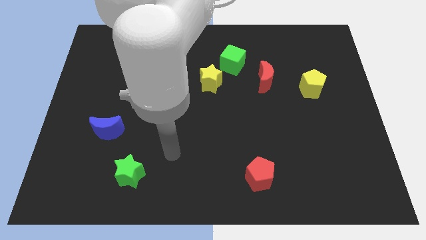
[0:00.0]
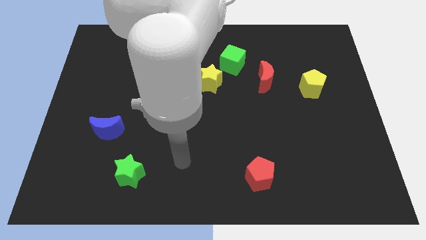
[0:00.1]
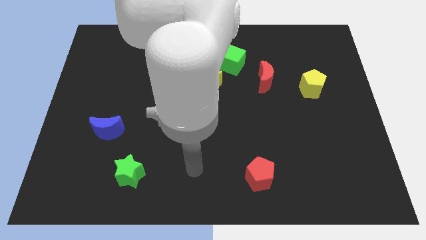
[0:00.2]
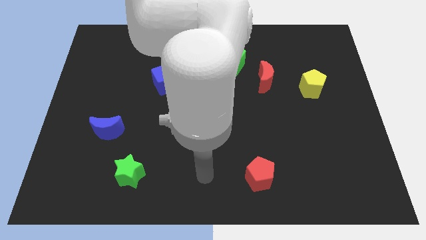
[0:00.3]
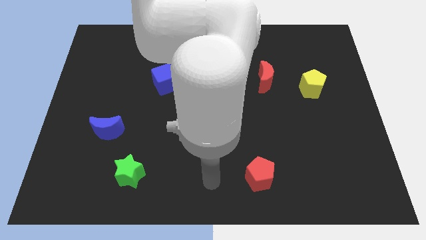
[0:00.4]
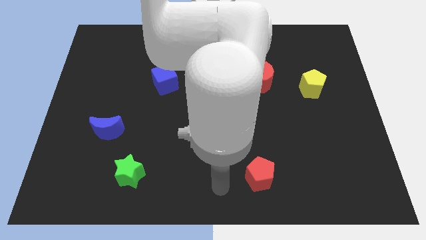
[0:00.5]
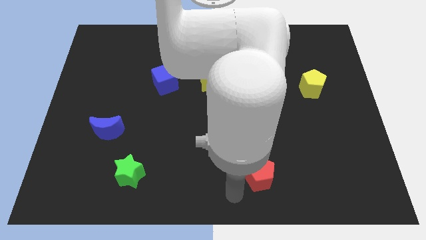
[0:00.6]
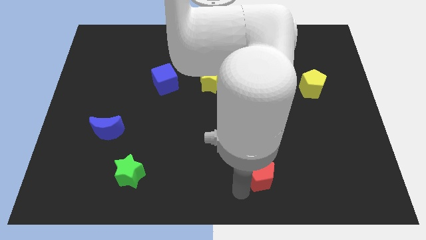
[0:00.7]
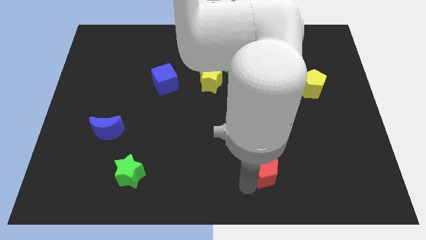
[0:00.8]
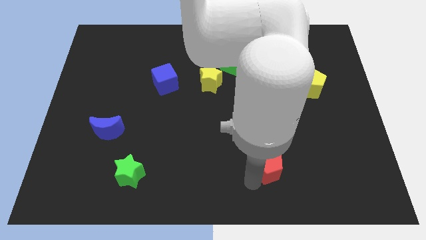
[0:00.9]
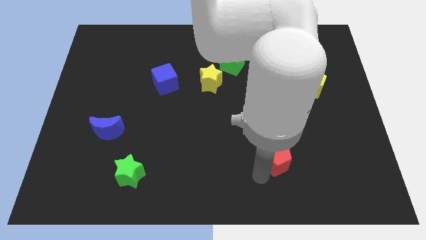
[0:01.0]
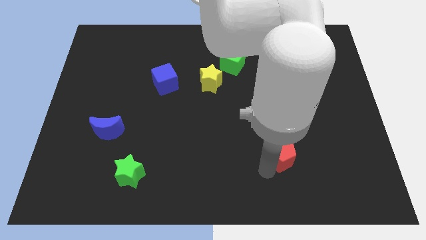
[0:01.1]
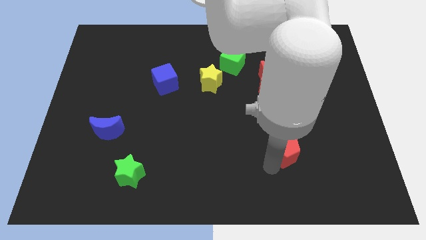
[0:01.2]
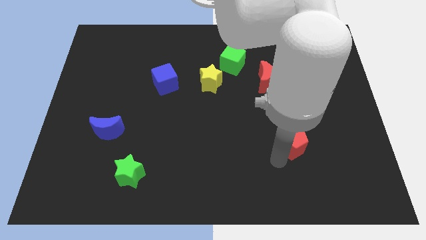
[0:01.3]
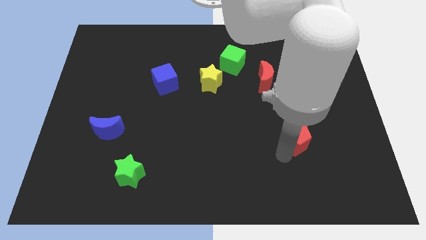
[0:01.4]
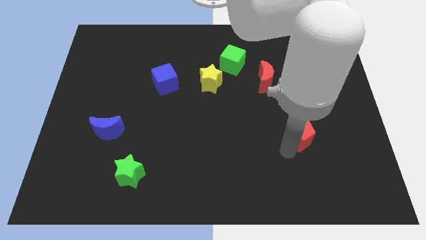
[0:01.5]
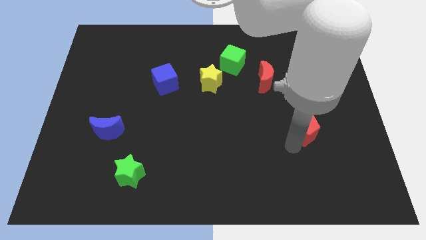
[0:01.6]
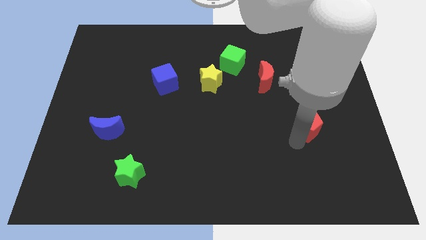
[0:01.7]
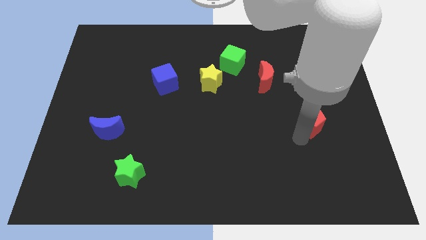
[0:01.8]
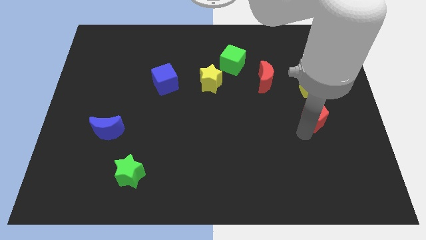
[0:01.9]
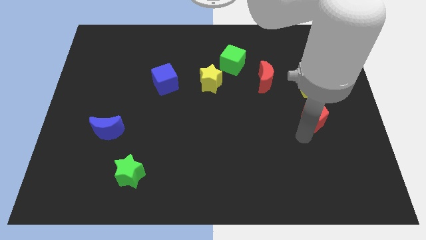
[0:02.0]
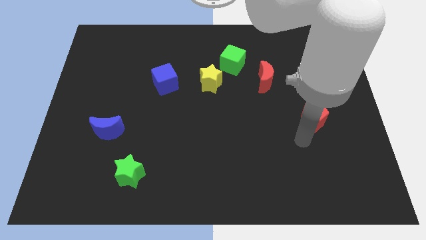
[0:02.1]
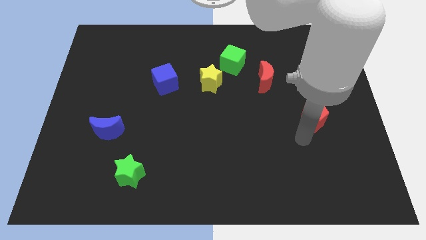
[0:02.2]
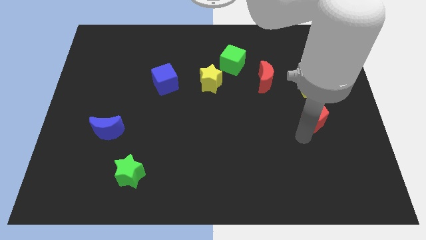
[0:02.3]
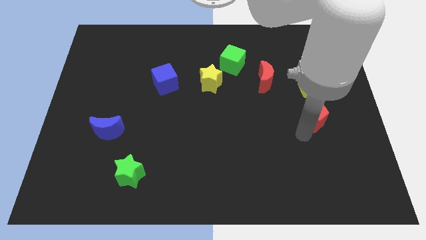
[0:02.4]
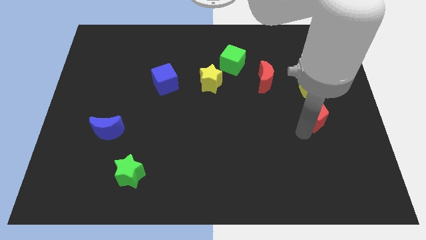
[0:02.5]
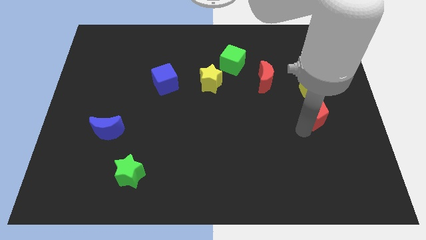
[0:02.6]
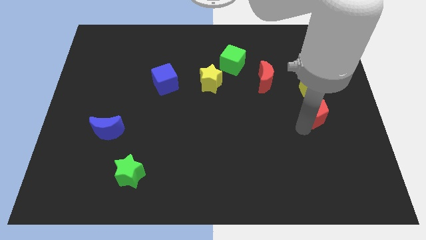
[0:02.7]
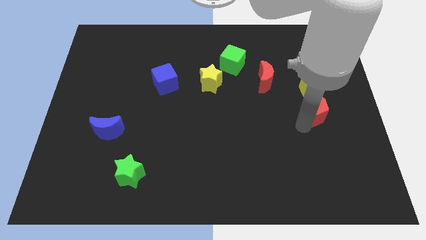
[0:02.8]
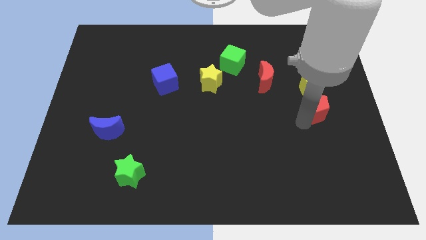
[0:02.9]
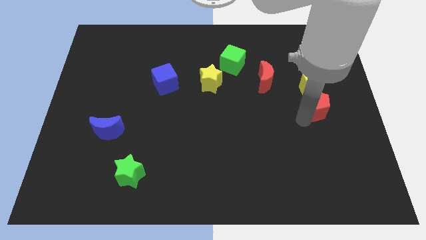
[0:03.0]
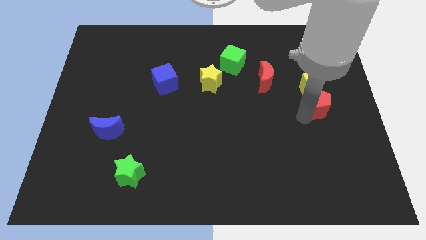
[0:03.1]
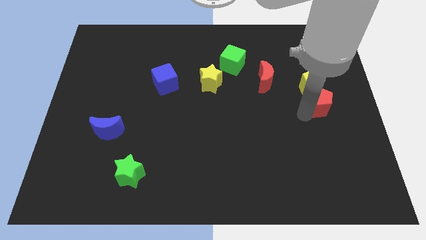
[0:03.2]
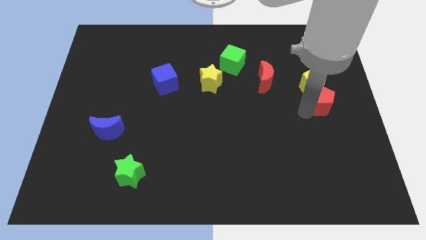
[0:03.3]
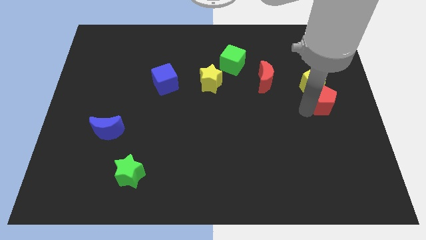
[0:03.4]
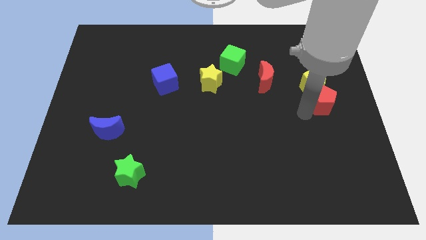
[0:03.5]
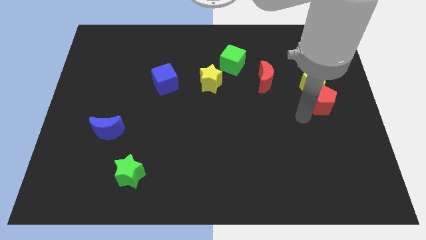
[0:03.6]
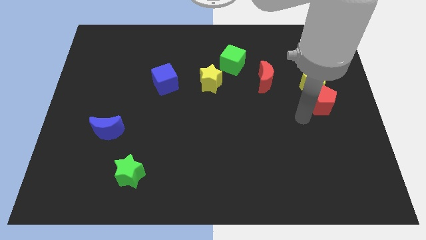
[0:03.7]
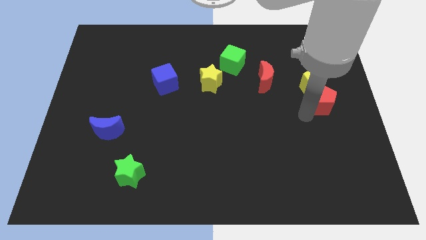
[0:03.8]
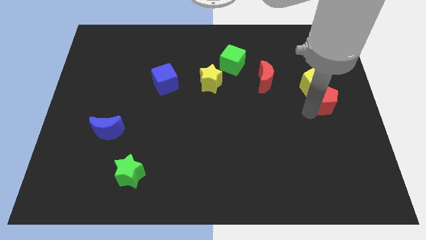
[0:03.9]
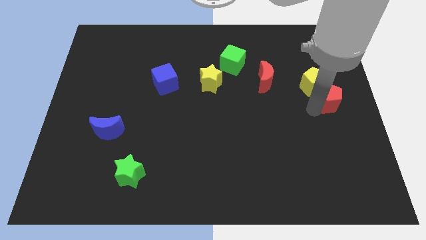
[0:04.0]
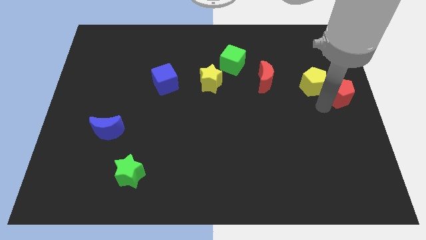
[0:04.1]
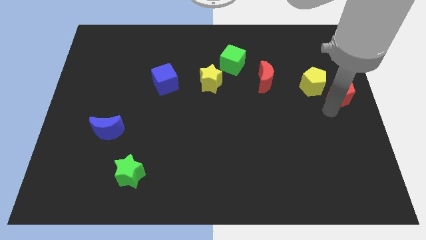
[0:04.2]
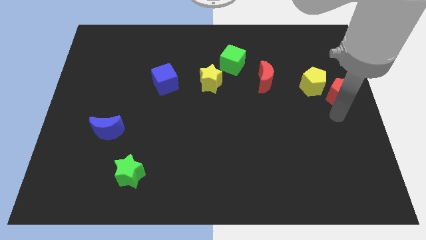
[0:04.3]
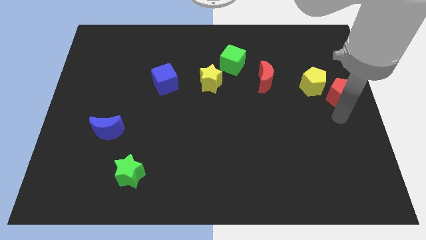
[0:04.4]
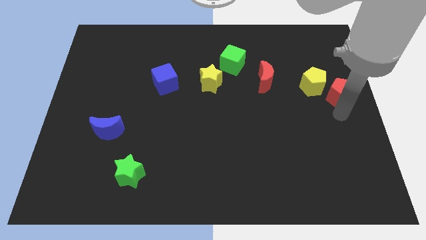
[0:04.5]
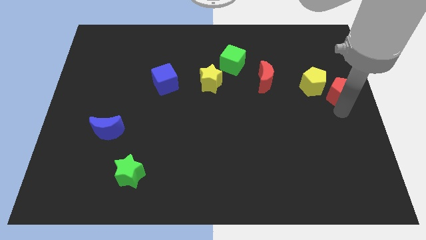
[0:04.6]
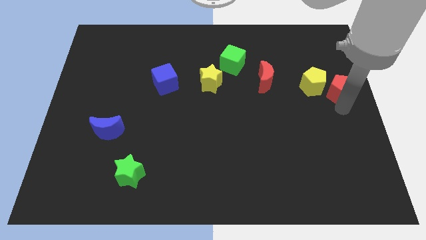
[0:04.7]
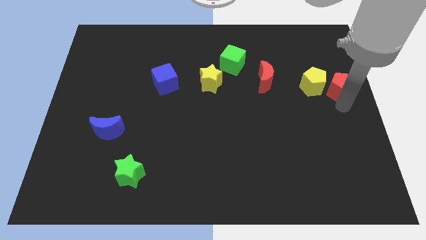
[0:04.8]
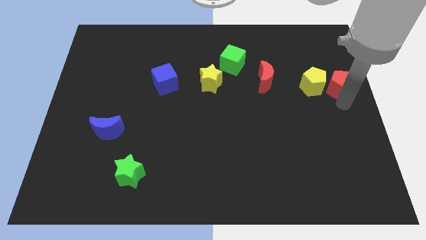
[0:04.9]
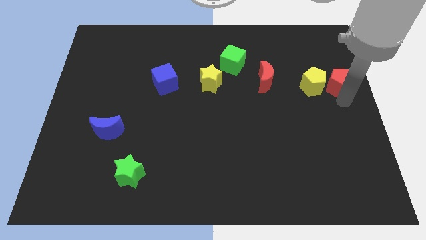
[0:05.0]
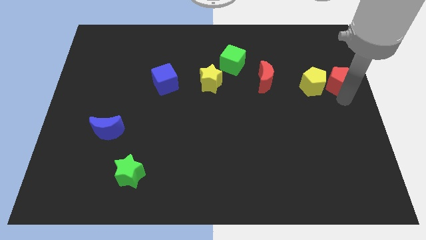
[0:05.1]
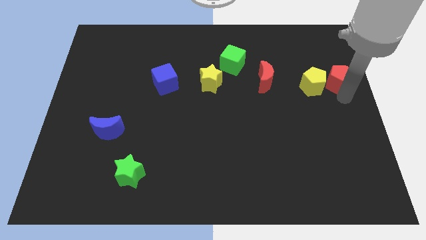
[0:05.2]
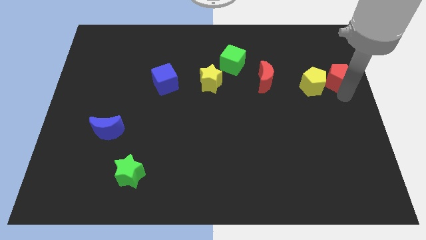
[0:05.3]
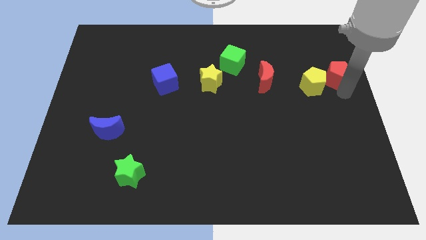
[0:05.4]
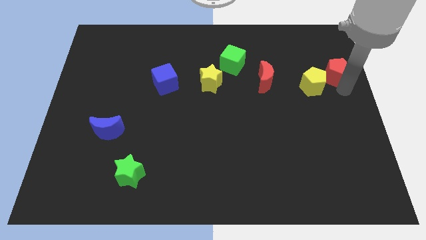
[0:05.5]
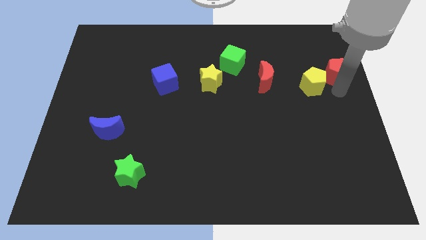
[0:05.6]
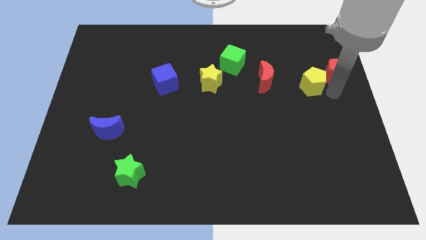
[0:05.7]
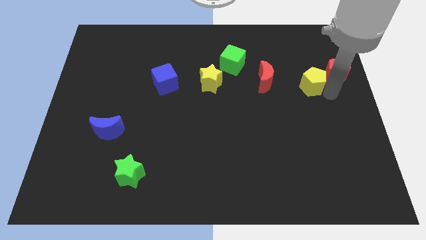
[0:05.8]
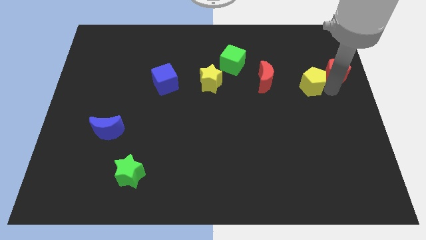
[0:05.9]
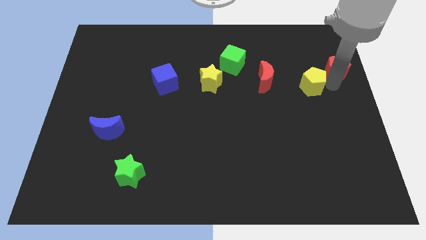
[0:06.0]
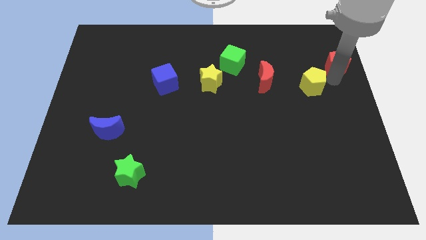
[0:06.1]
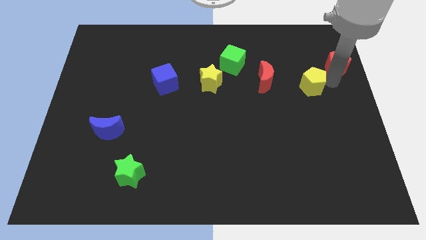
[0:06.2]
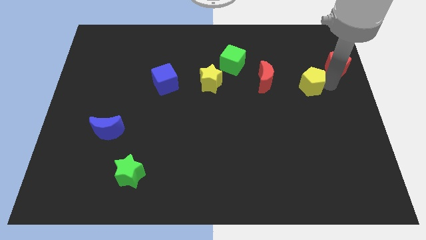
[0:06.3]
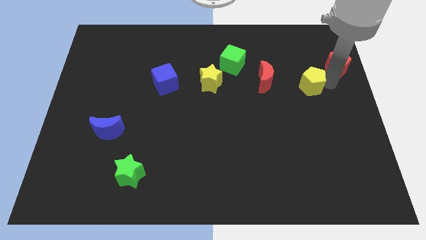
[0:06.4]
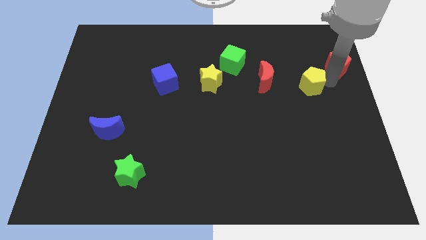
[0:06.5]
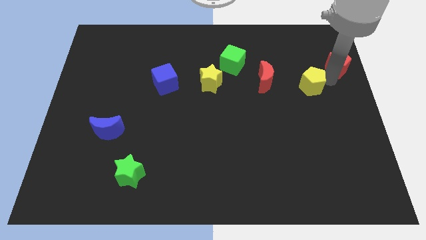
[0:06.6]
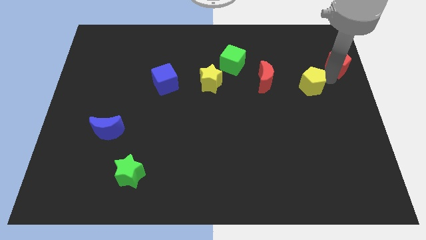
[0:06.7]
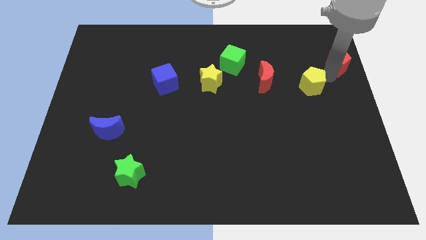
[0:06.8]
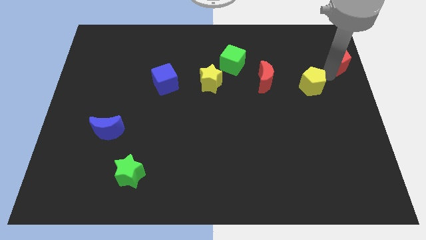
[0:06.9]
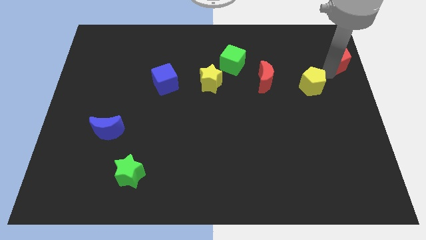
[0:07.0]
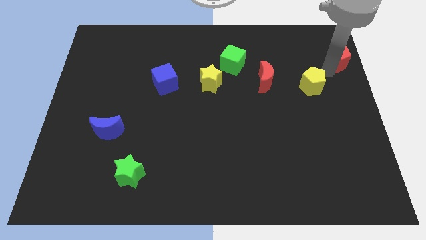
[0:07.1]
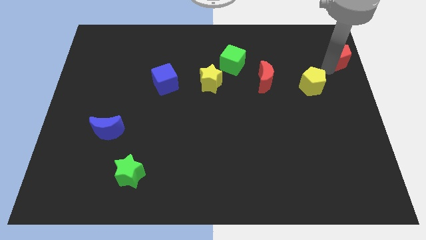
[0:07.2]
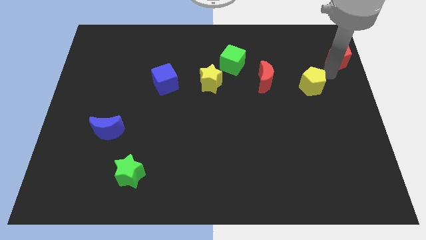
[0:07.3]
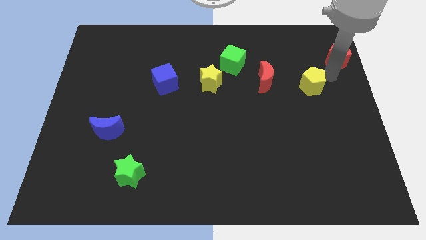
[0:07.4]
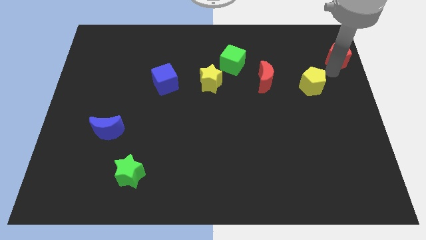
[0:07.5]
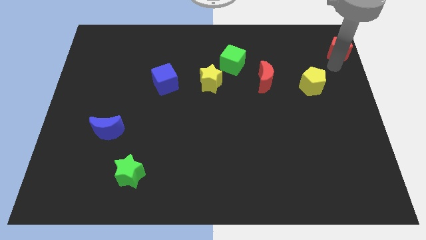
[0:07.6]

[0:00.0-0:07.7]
push the red pentagon to the top right of the board
